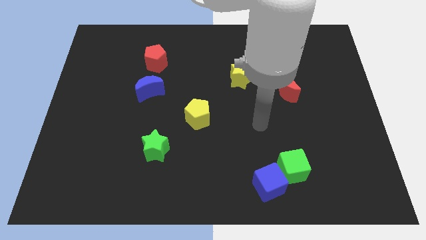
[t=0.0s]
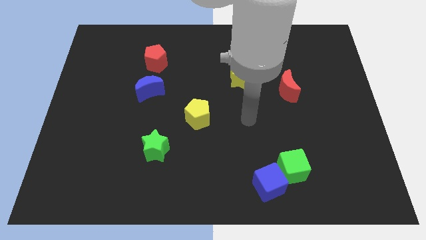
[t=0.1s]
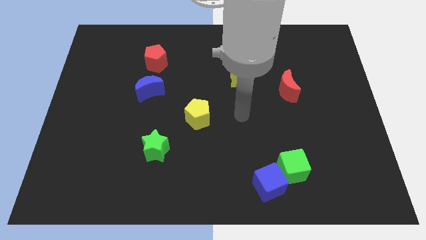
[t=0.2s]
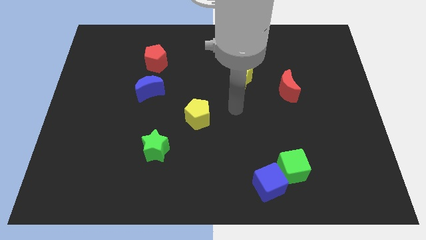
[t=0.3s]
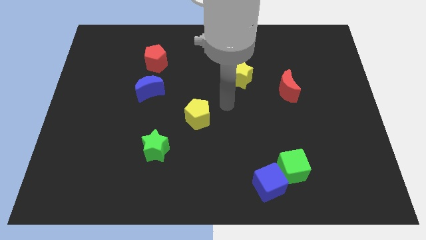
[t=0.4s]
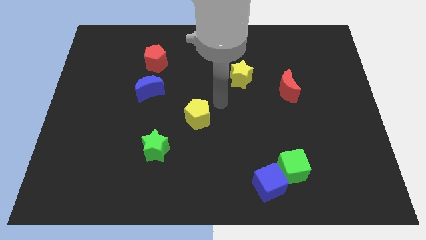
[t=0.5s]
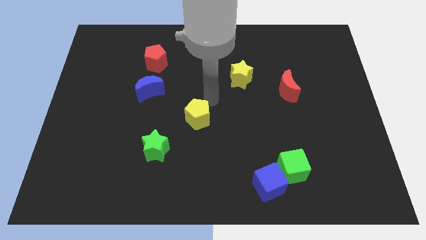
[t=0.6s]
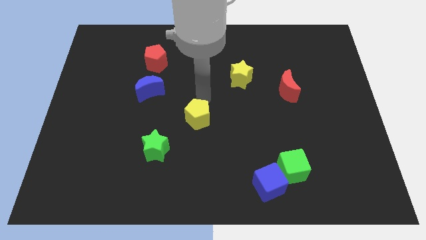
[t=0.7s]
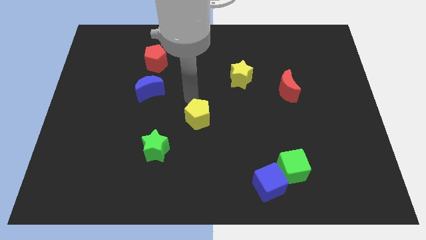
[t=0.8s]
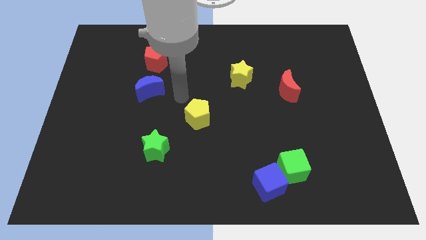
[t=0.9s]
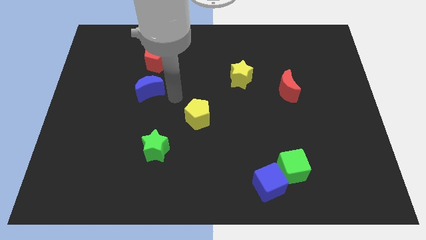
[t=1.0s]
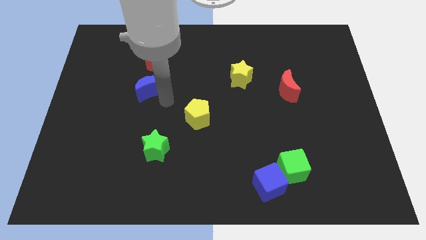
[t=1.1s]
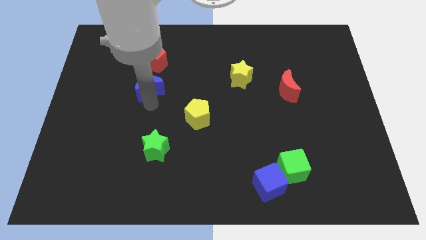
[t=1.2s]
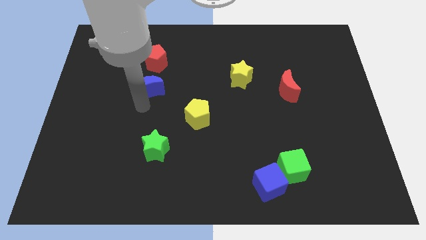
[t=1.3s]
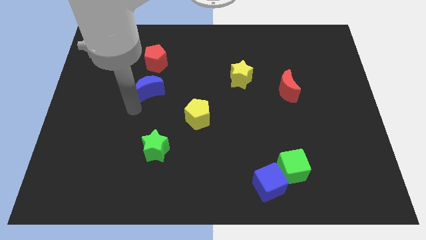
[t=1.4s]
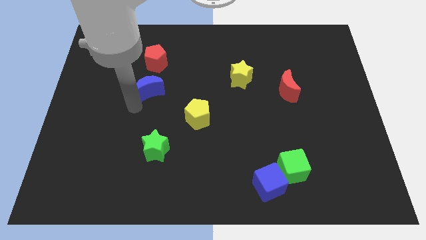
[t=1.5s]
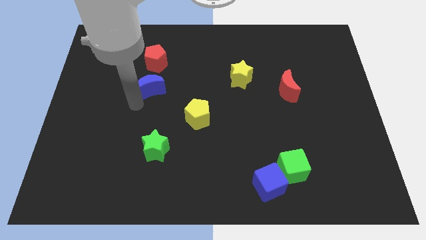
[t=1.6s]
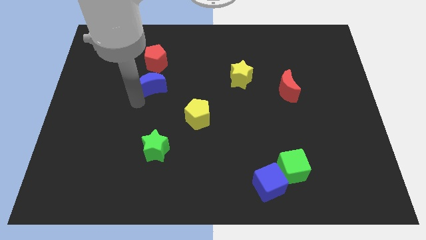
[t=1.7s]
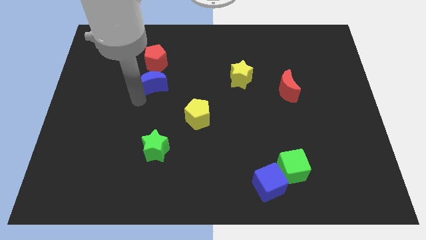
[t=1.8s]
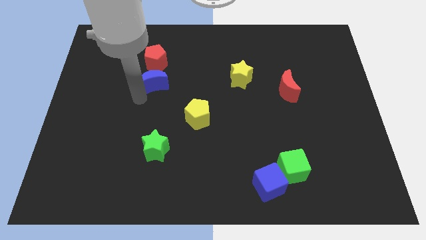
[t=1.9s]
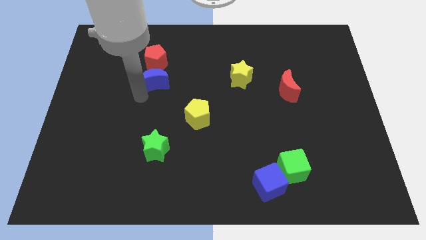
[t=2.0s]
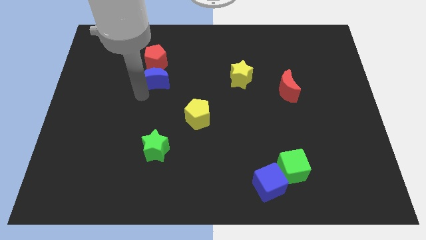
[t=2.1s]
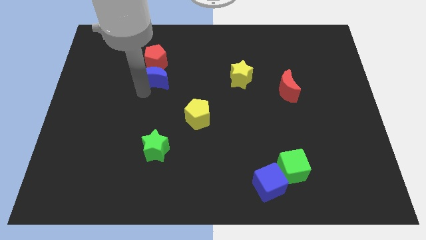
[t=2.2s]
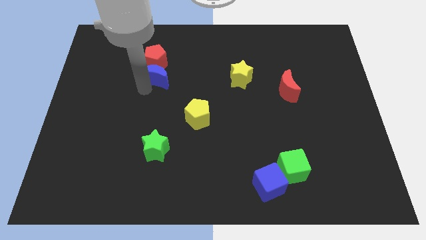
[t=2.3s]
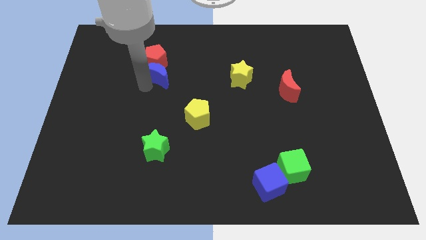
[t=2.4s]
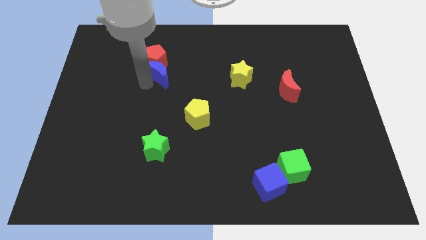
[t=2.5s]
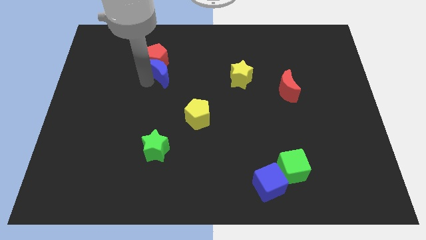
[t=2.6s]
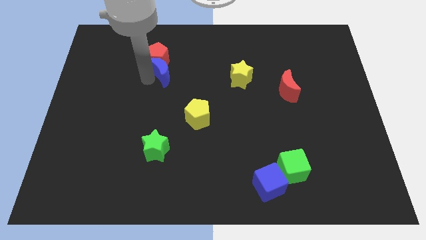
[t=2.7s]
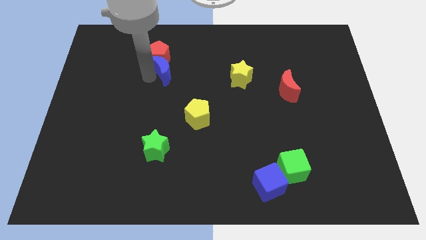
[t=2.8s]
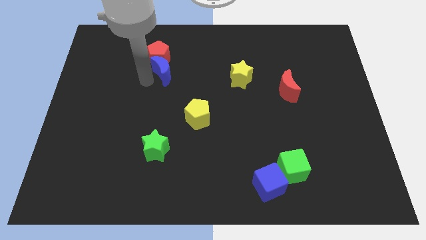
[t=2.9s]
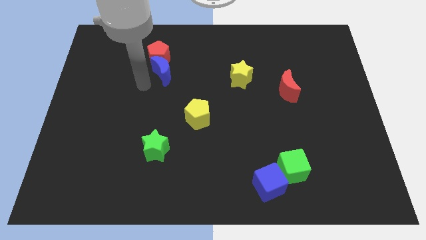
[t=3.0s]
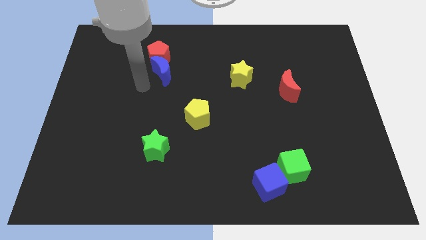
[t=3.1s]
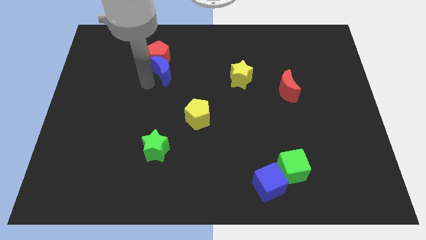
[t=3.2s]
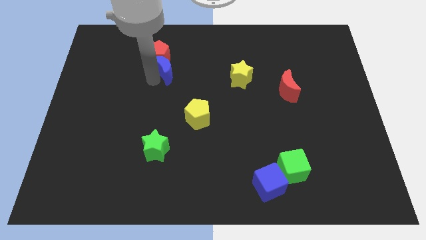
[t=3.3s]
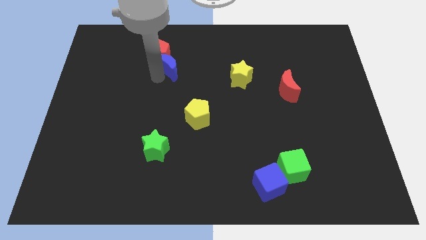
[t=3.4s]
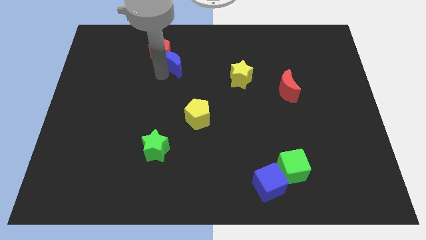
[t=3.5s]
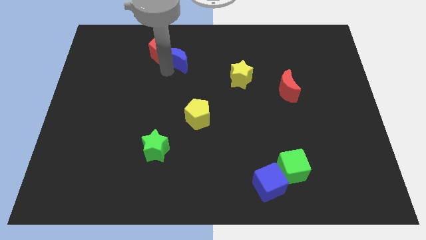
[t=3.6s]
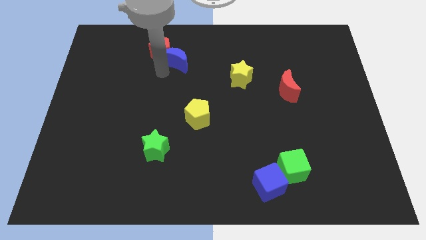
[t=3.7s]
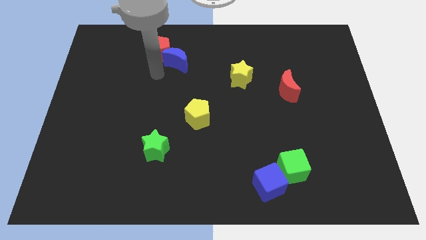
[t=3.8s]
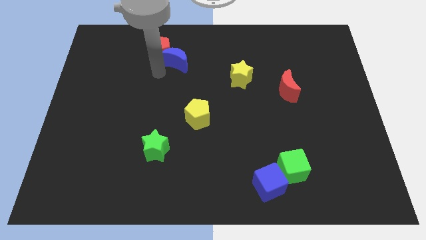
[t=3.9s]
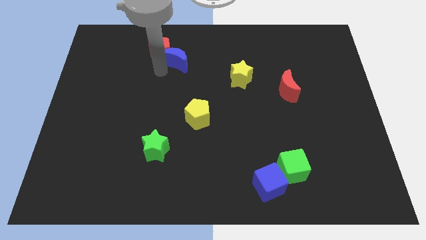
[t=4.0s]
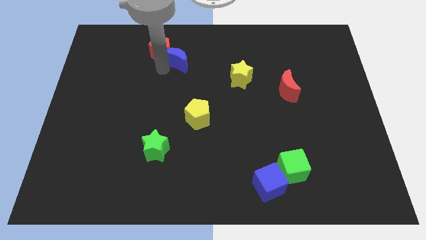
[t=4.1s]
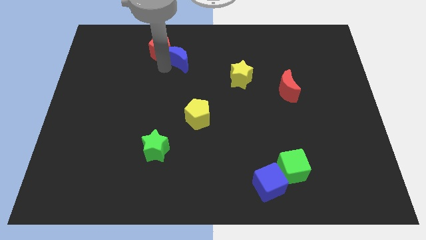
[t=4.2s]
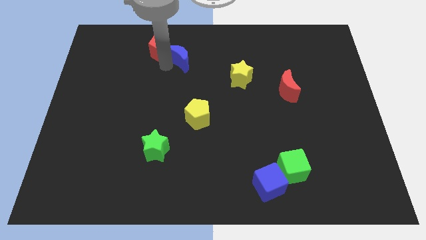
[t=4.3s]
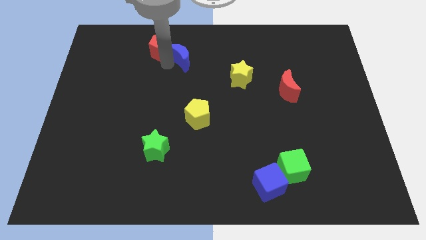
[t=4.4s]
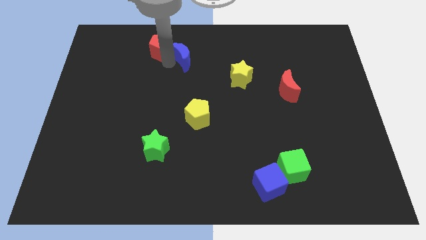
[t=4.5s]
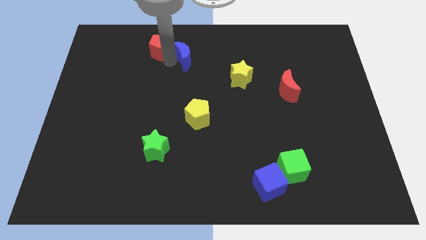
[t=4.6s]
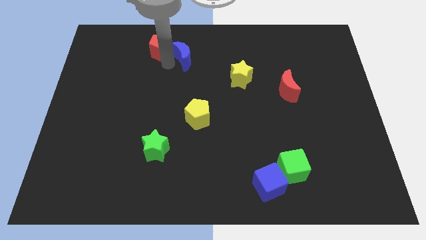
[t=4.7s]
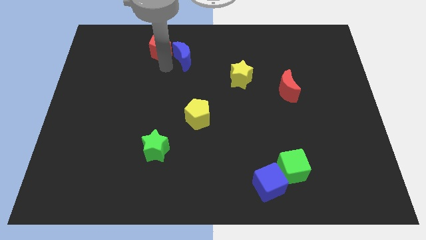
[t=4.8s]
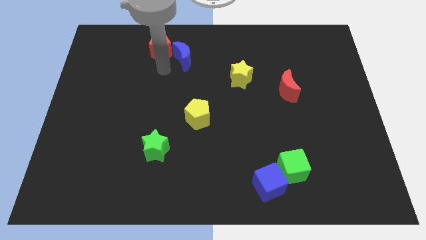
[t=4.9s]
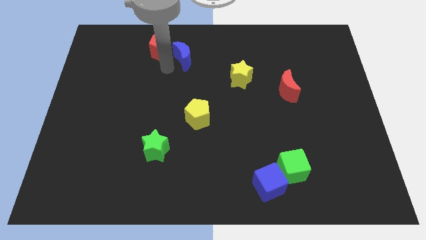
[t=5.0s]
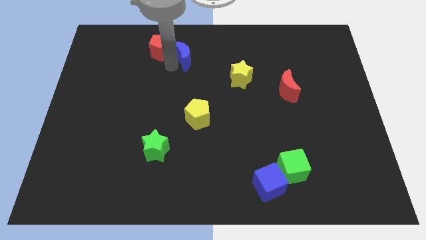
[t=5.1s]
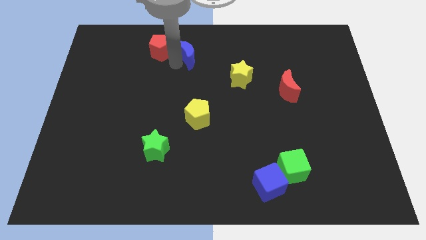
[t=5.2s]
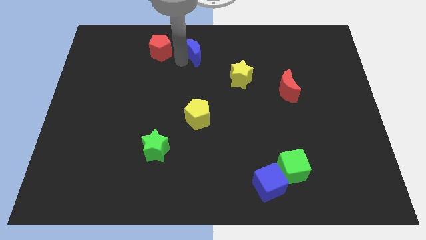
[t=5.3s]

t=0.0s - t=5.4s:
push the blue moon to the top side

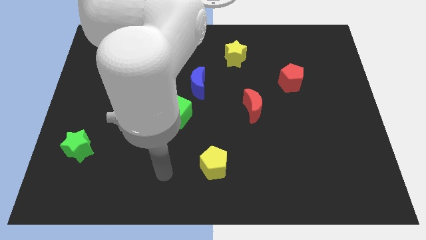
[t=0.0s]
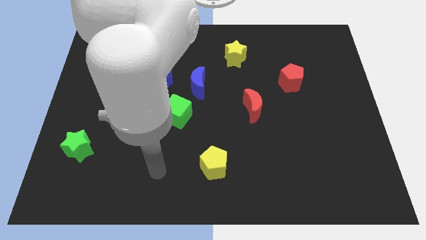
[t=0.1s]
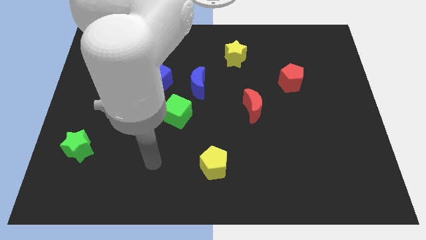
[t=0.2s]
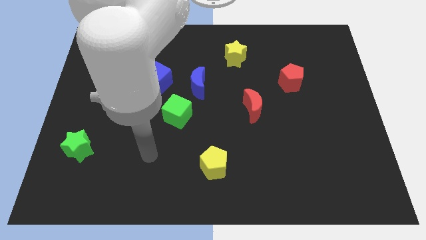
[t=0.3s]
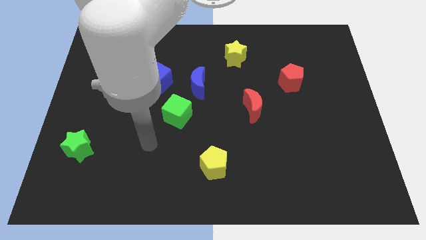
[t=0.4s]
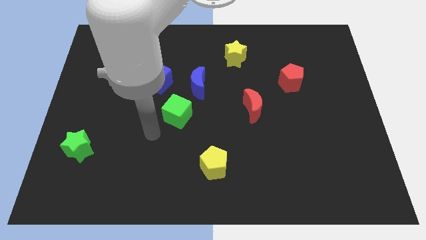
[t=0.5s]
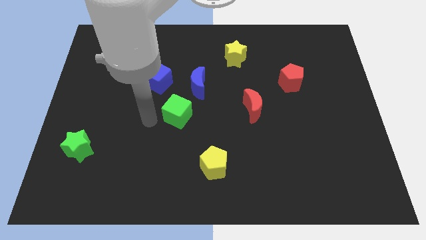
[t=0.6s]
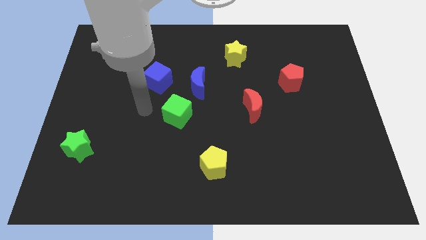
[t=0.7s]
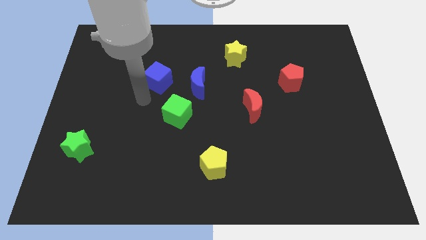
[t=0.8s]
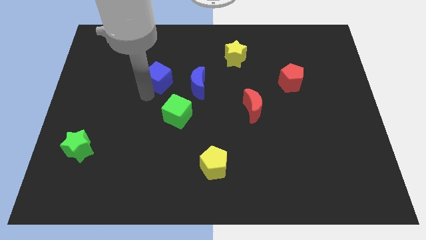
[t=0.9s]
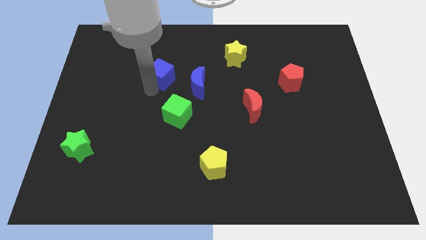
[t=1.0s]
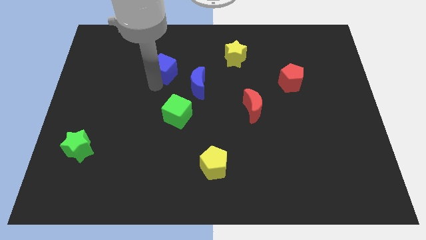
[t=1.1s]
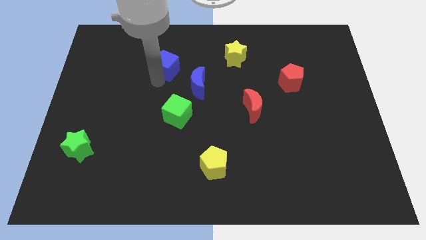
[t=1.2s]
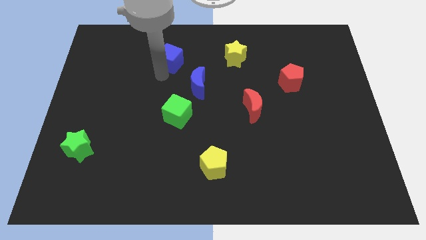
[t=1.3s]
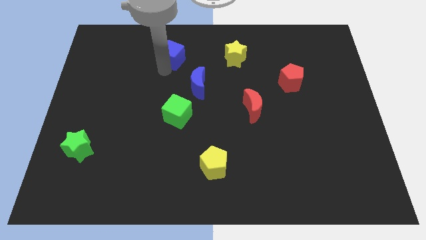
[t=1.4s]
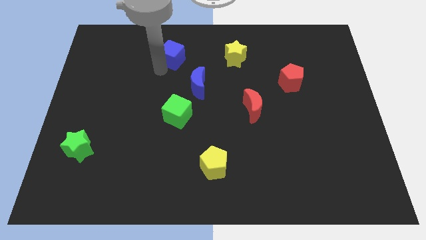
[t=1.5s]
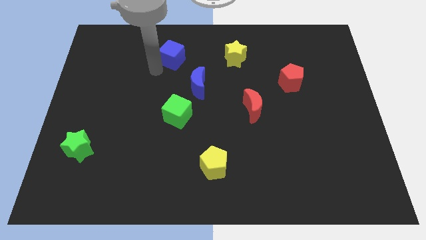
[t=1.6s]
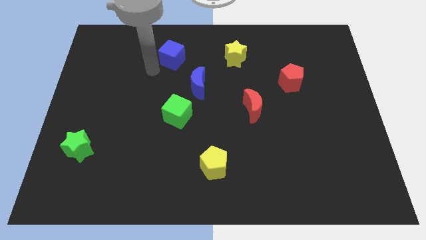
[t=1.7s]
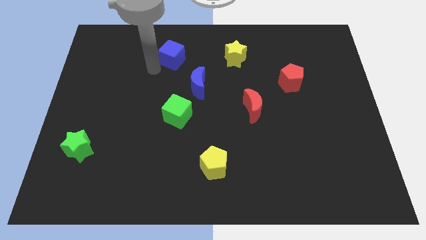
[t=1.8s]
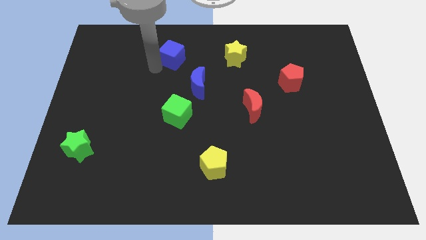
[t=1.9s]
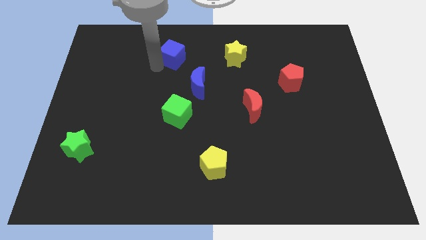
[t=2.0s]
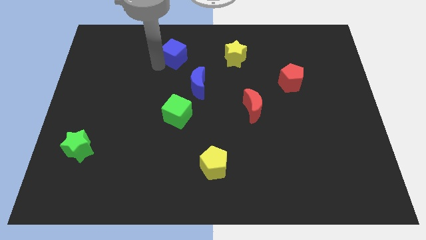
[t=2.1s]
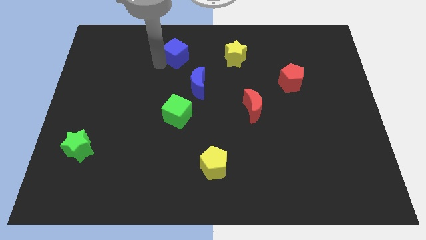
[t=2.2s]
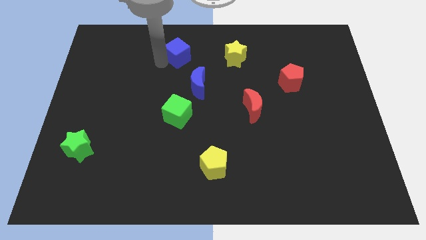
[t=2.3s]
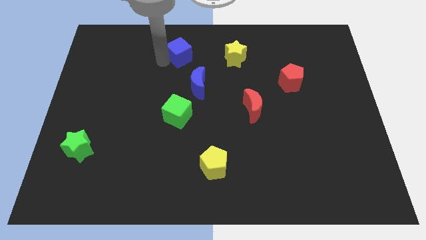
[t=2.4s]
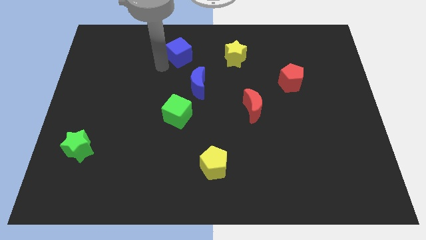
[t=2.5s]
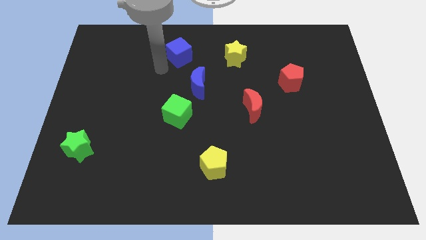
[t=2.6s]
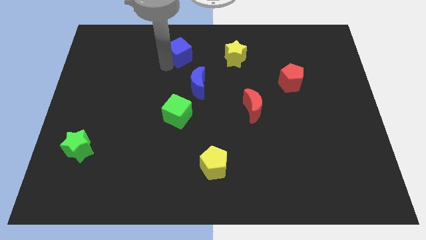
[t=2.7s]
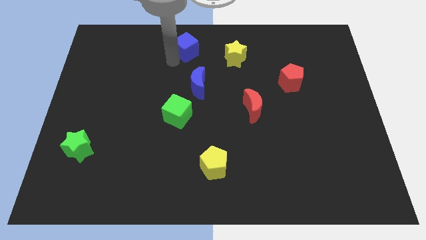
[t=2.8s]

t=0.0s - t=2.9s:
move the blue cube to the towards your base
